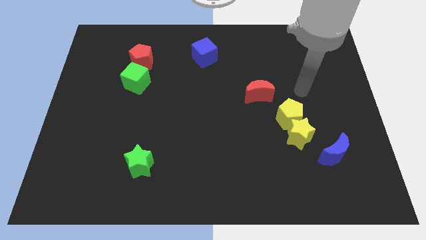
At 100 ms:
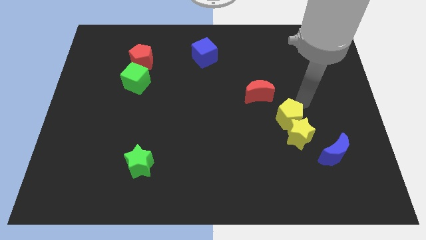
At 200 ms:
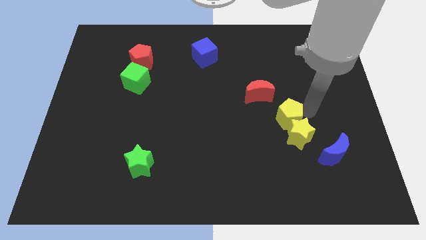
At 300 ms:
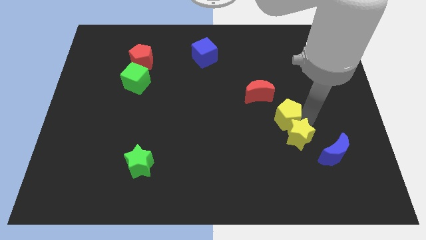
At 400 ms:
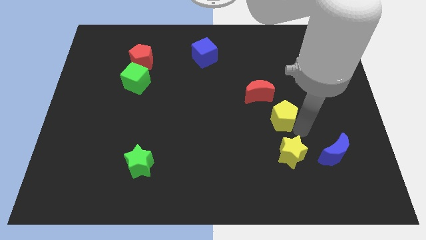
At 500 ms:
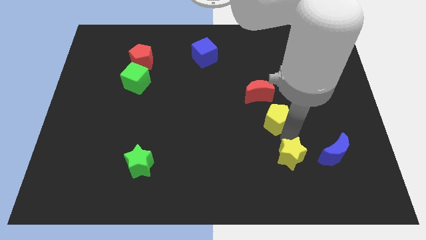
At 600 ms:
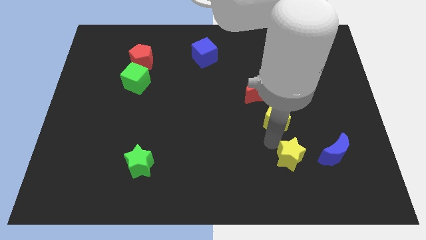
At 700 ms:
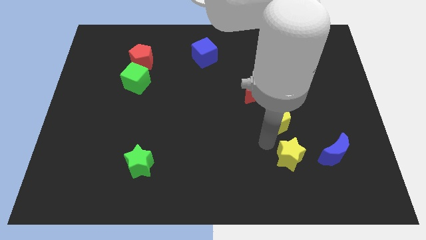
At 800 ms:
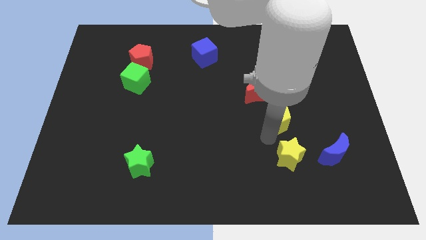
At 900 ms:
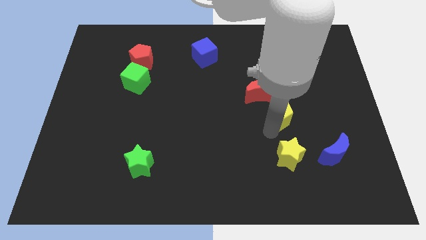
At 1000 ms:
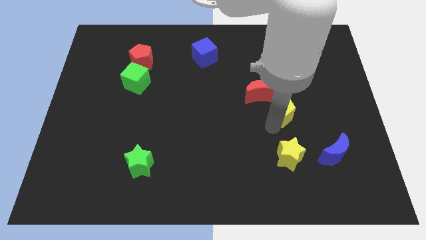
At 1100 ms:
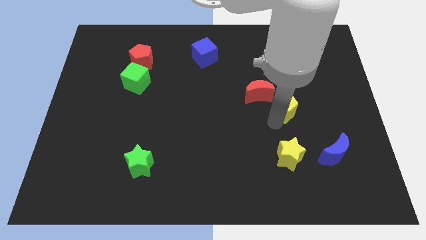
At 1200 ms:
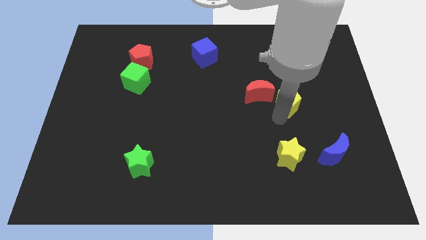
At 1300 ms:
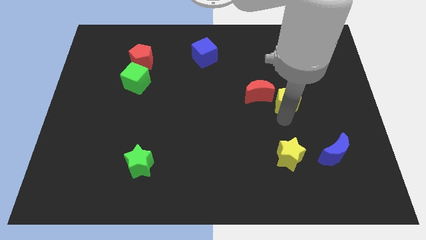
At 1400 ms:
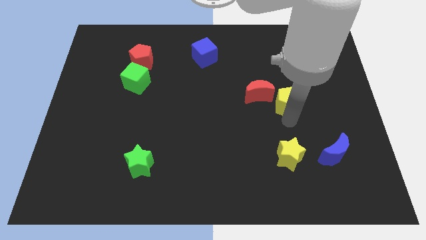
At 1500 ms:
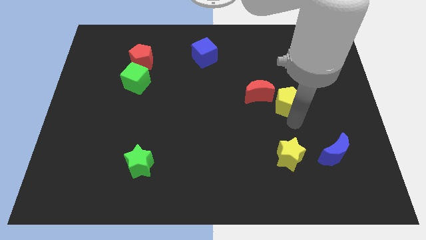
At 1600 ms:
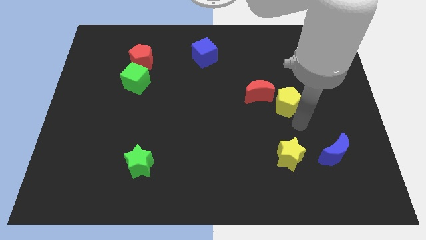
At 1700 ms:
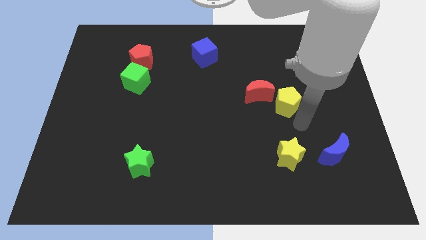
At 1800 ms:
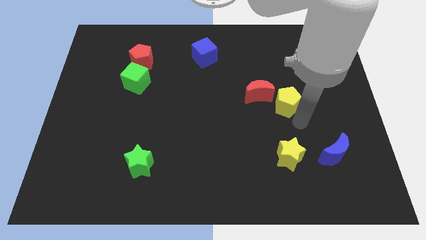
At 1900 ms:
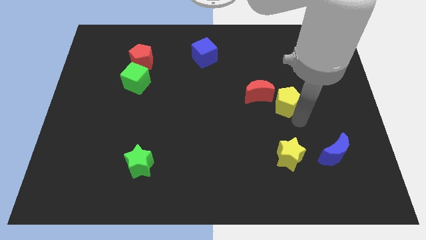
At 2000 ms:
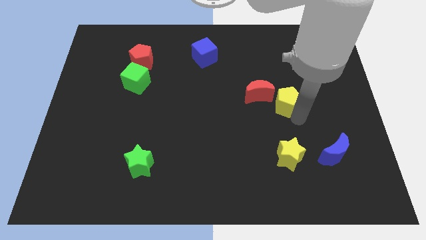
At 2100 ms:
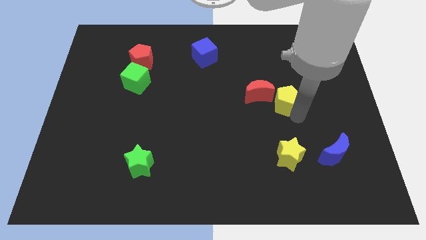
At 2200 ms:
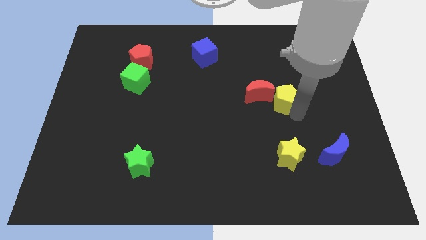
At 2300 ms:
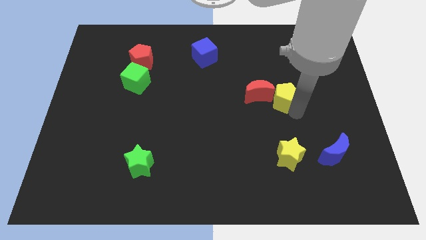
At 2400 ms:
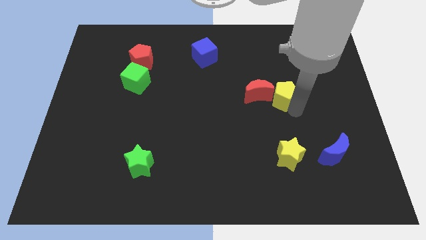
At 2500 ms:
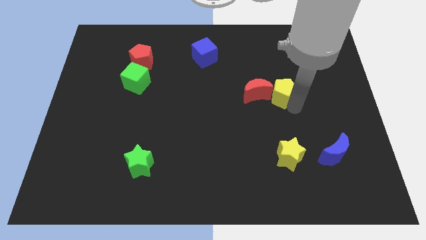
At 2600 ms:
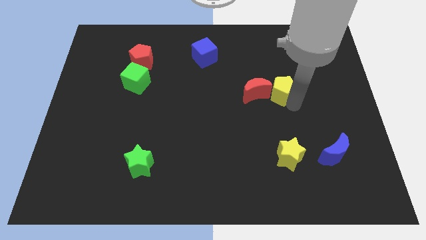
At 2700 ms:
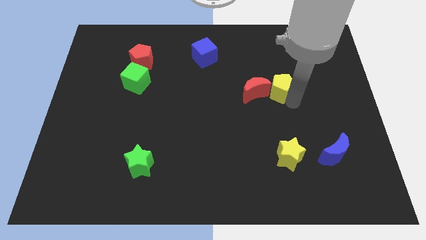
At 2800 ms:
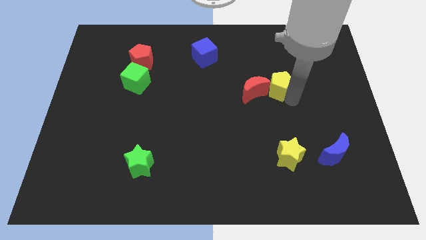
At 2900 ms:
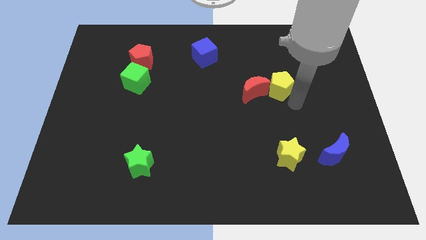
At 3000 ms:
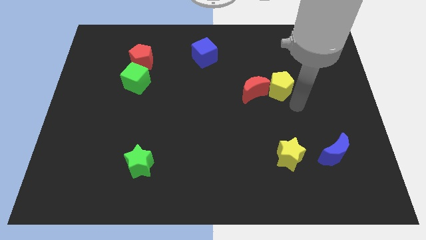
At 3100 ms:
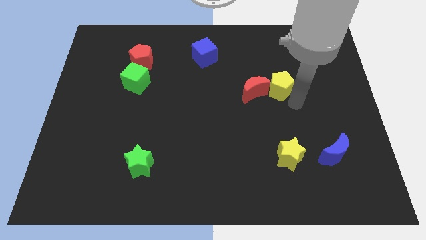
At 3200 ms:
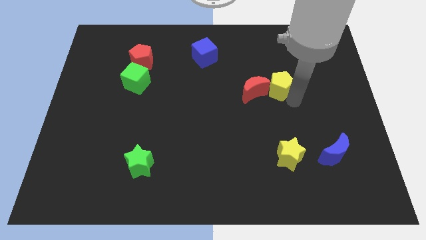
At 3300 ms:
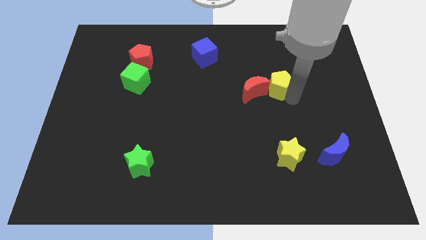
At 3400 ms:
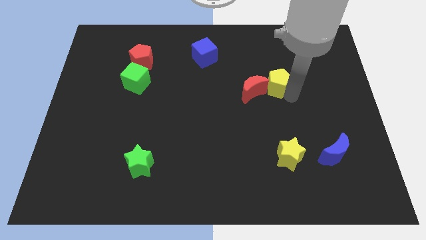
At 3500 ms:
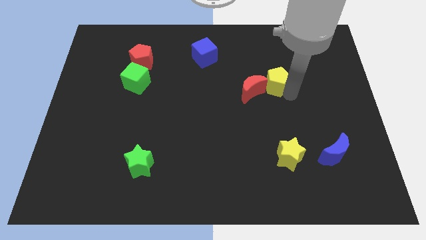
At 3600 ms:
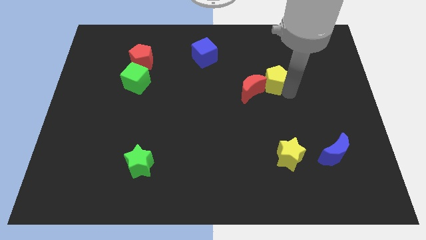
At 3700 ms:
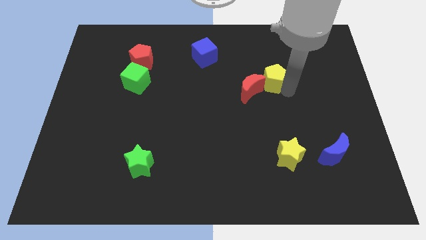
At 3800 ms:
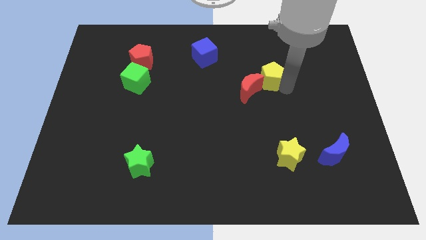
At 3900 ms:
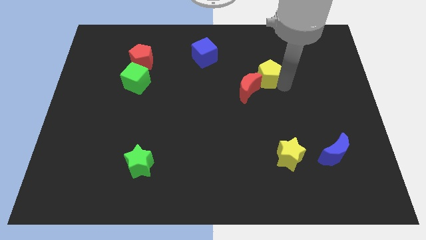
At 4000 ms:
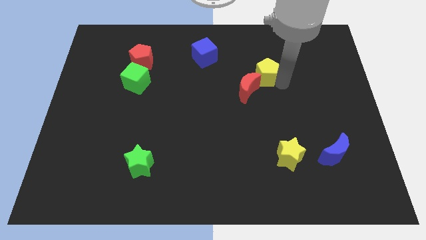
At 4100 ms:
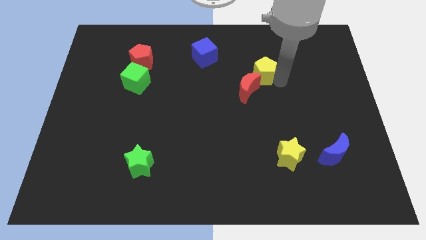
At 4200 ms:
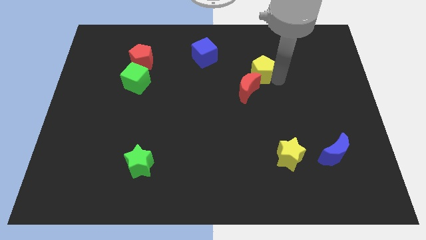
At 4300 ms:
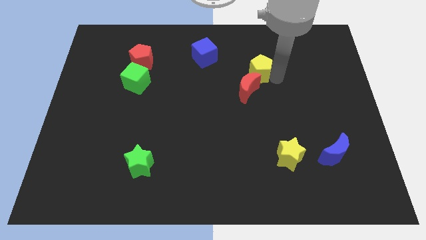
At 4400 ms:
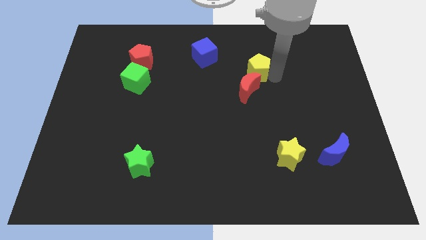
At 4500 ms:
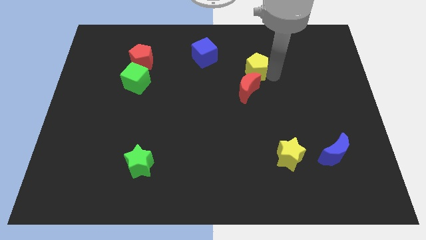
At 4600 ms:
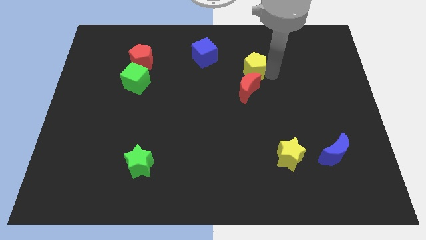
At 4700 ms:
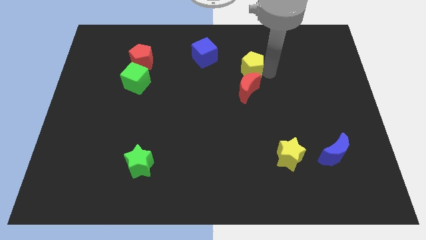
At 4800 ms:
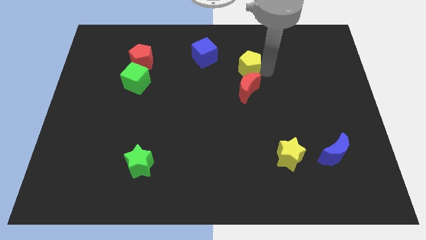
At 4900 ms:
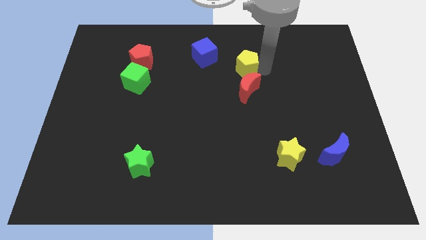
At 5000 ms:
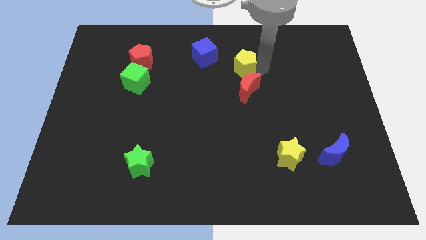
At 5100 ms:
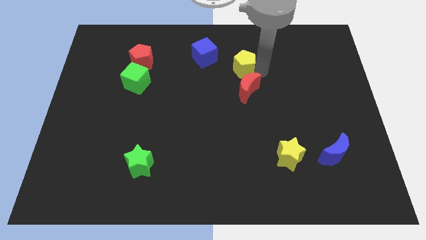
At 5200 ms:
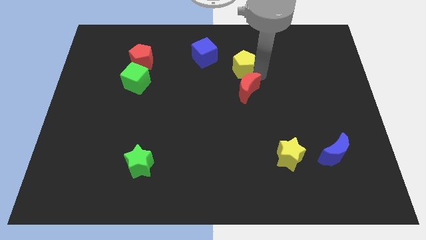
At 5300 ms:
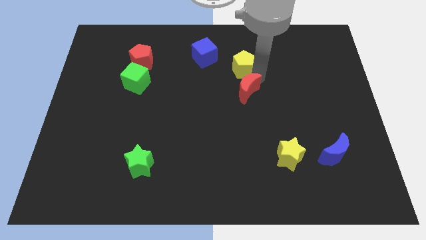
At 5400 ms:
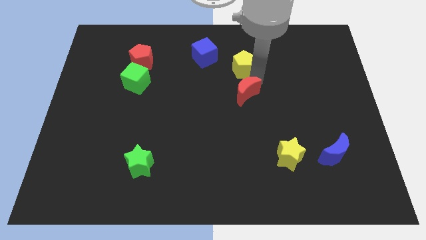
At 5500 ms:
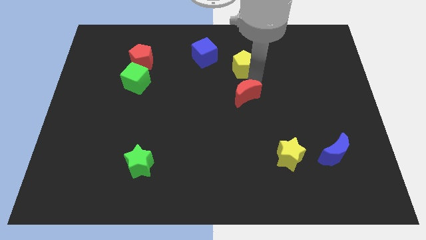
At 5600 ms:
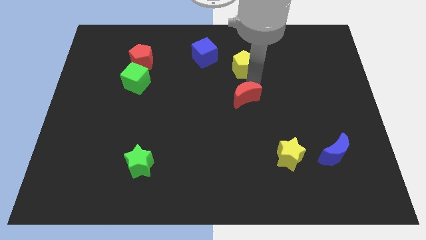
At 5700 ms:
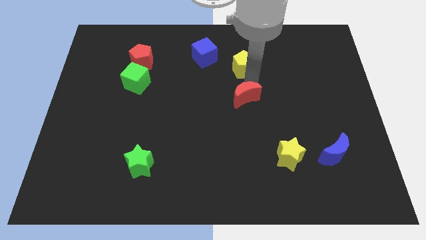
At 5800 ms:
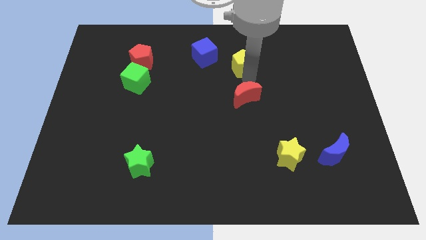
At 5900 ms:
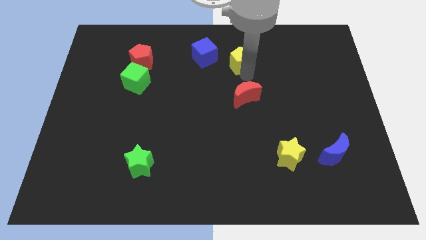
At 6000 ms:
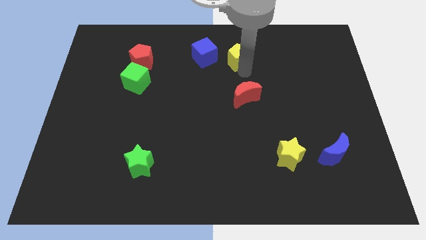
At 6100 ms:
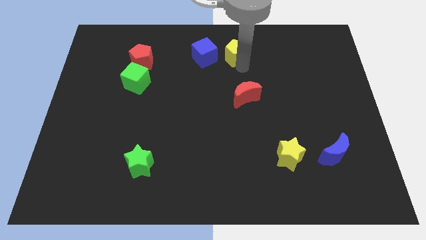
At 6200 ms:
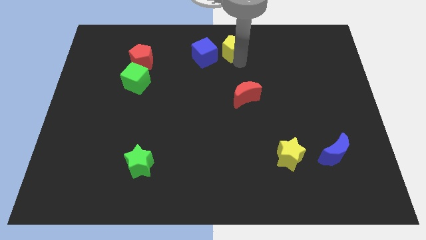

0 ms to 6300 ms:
put the yellow pentagon to the top

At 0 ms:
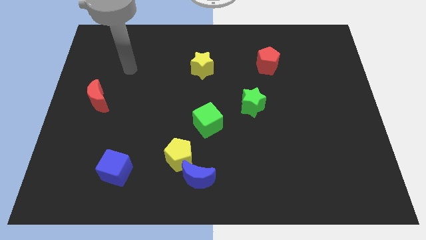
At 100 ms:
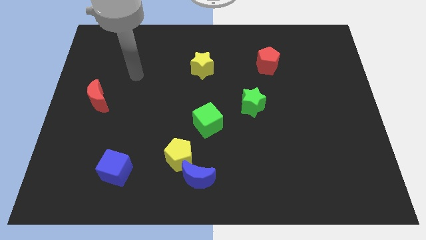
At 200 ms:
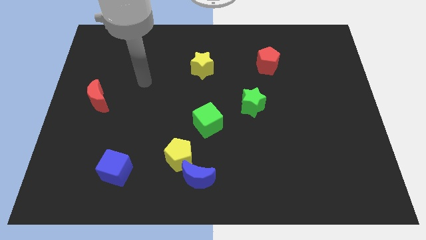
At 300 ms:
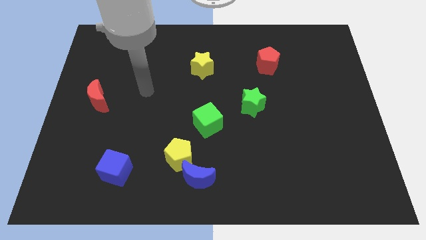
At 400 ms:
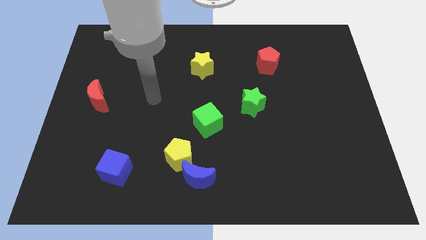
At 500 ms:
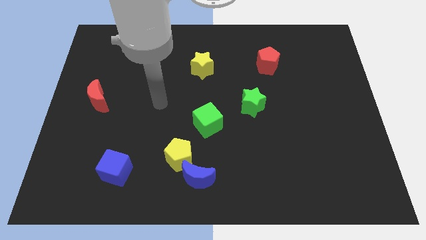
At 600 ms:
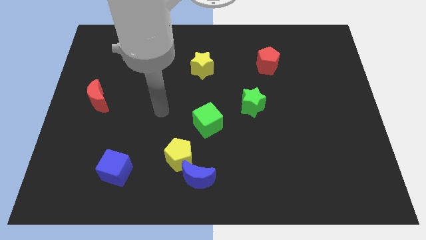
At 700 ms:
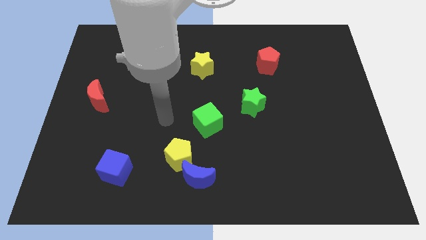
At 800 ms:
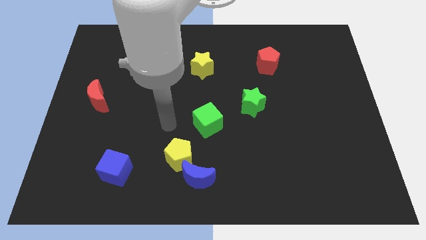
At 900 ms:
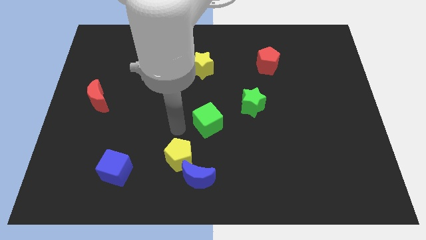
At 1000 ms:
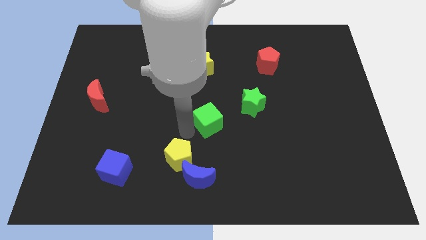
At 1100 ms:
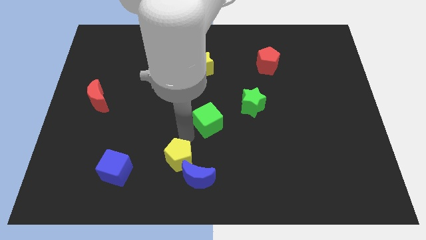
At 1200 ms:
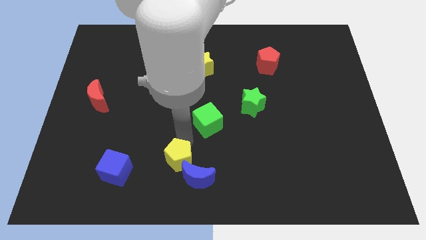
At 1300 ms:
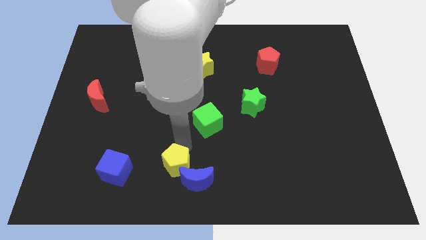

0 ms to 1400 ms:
slide the yellow pentagon to the bottom side
